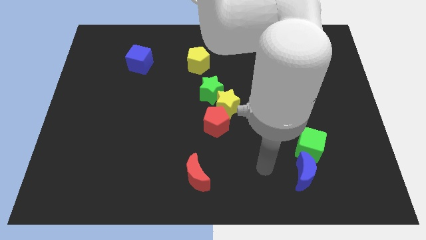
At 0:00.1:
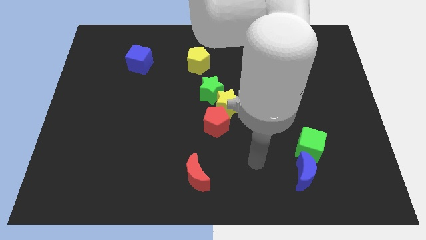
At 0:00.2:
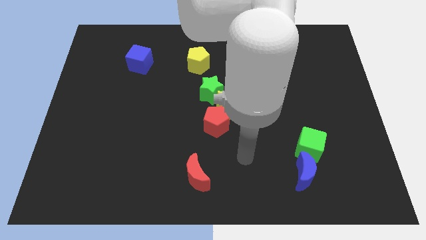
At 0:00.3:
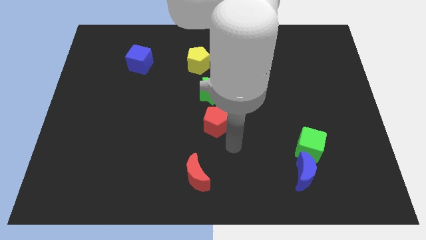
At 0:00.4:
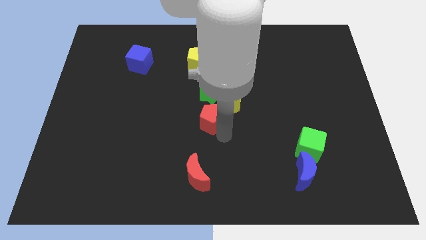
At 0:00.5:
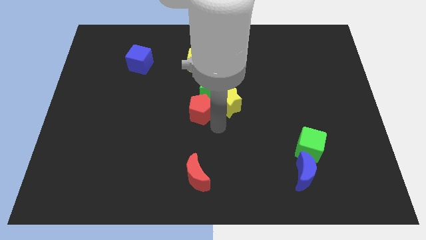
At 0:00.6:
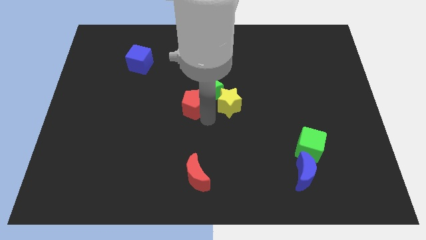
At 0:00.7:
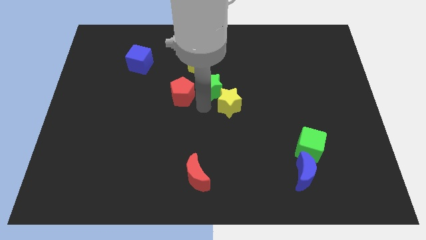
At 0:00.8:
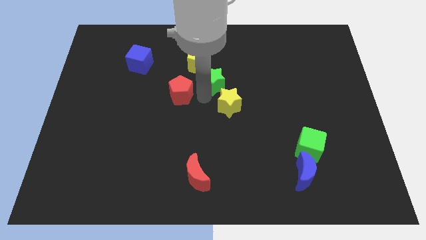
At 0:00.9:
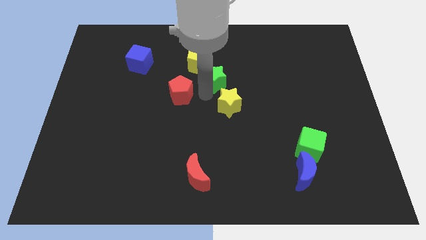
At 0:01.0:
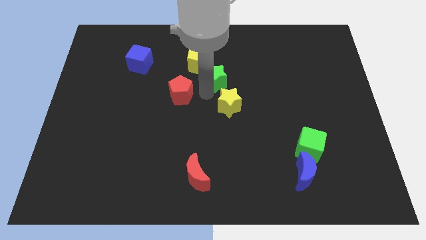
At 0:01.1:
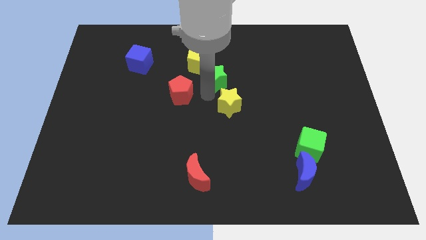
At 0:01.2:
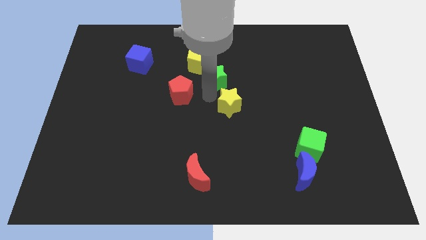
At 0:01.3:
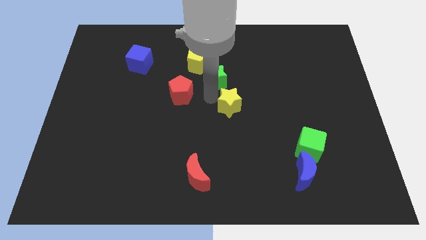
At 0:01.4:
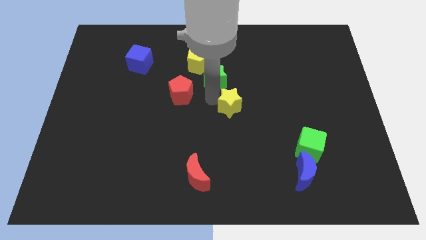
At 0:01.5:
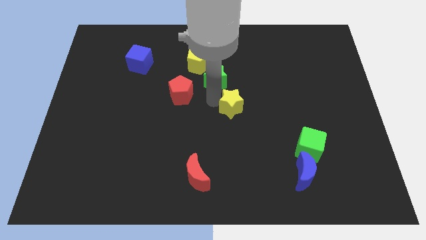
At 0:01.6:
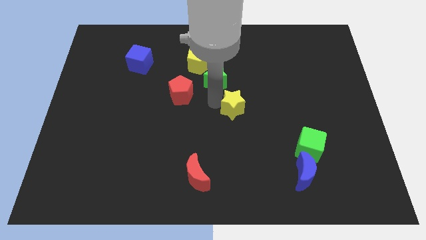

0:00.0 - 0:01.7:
pull the yellow star apart from the red pentagon and green star

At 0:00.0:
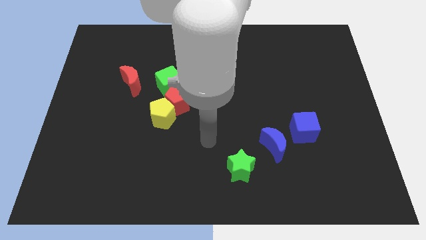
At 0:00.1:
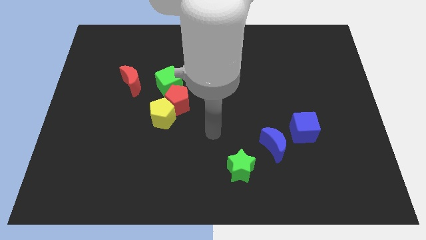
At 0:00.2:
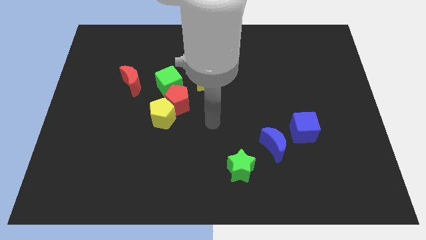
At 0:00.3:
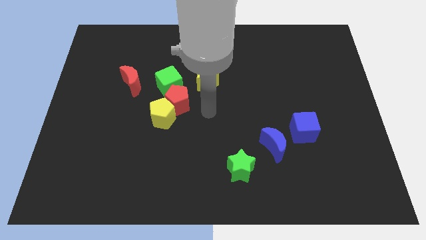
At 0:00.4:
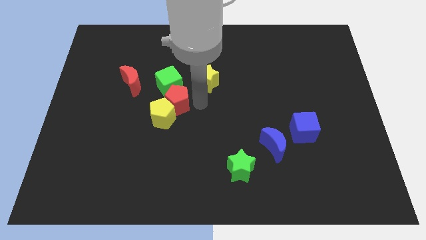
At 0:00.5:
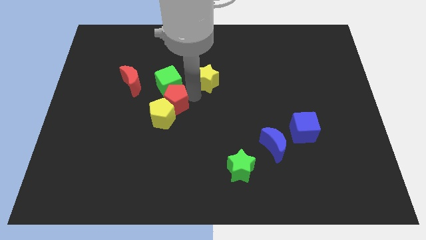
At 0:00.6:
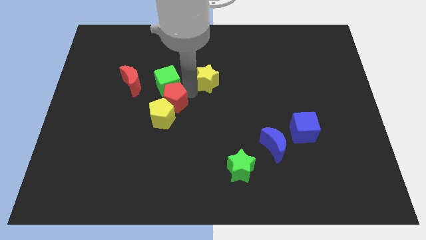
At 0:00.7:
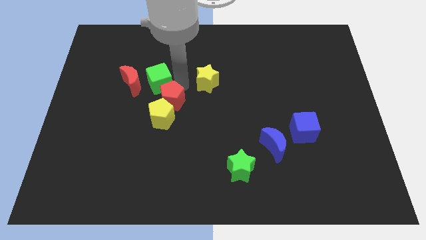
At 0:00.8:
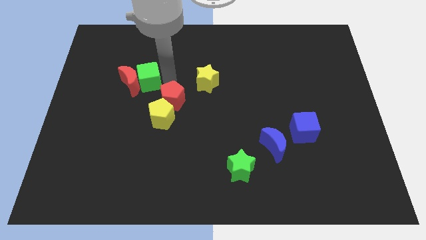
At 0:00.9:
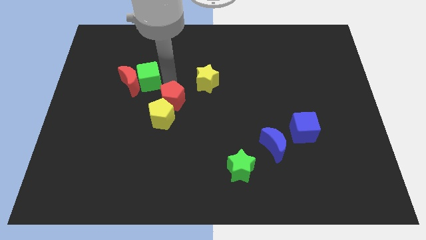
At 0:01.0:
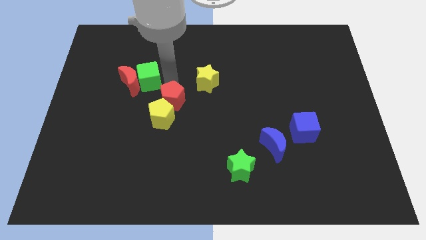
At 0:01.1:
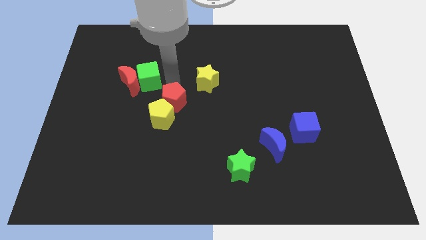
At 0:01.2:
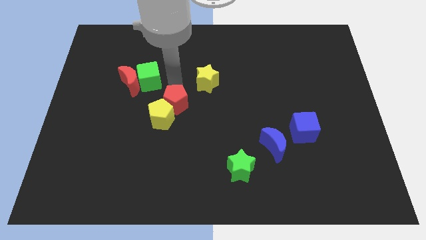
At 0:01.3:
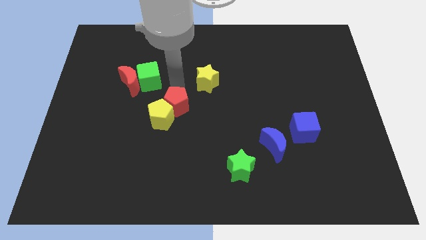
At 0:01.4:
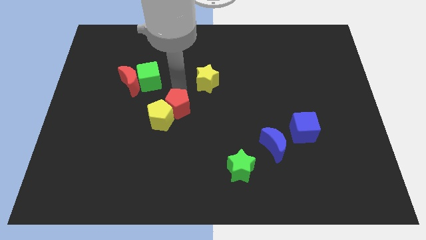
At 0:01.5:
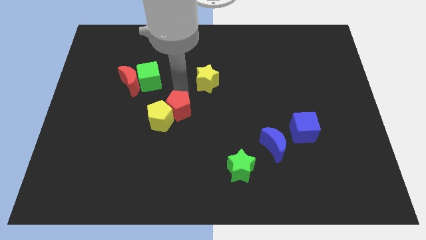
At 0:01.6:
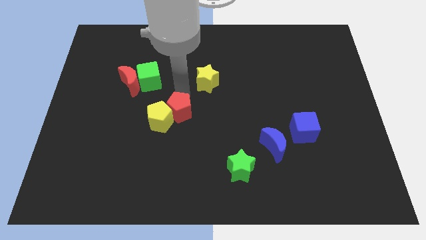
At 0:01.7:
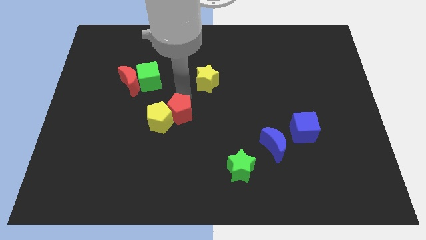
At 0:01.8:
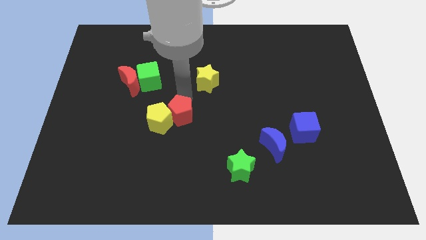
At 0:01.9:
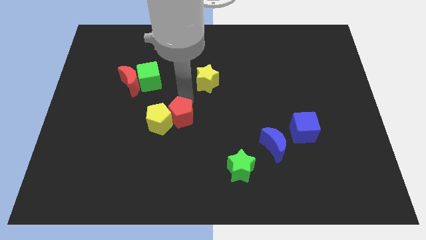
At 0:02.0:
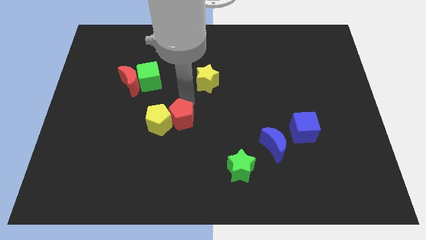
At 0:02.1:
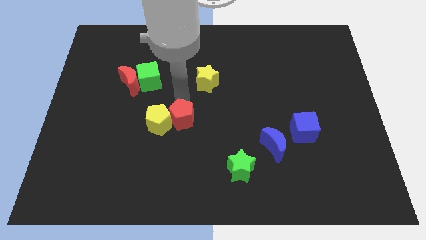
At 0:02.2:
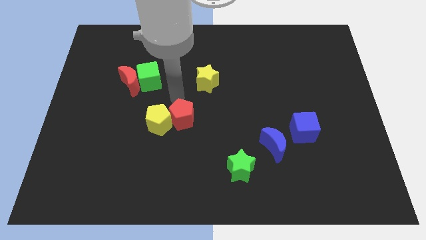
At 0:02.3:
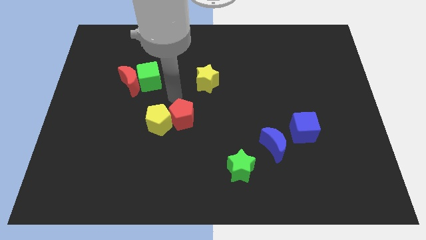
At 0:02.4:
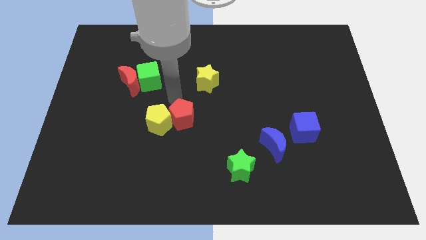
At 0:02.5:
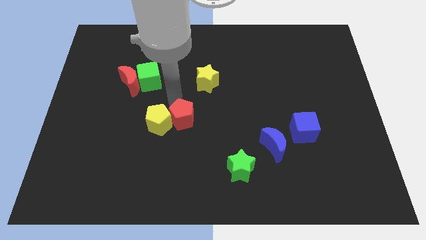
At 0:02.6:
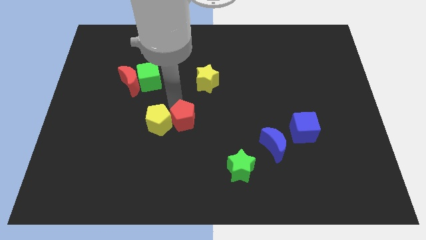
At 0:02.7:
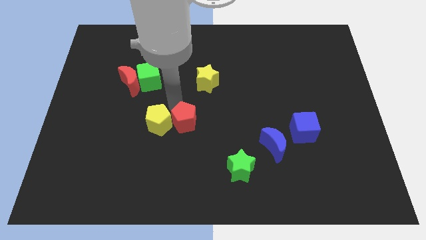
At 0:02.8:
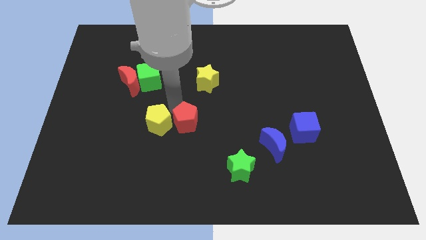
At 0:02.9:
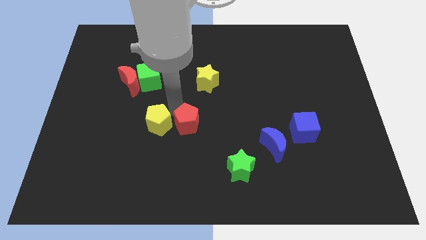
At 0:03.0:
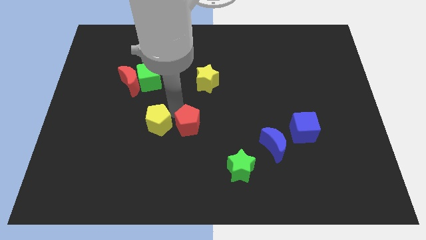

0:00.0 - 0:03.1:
move the red pentagon away from the yellow pentagon, green cube, and yellow star

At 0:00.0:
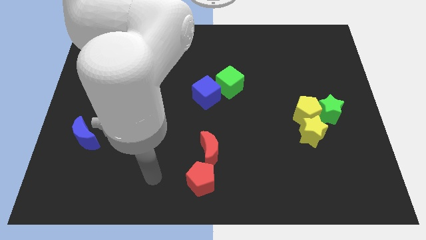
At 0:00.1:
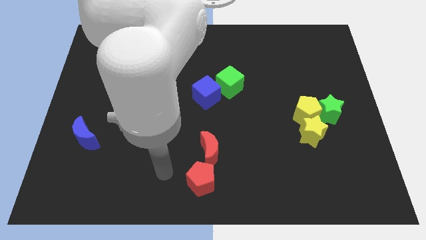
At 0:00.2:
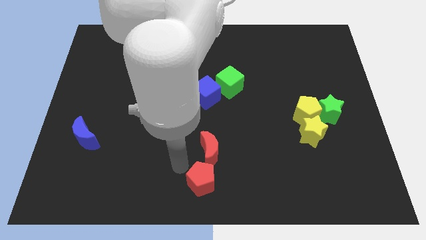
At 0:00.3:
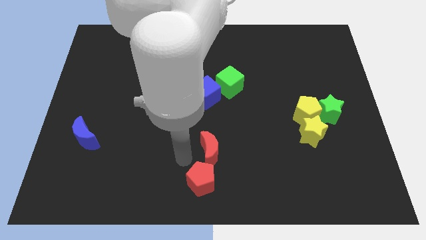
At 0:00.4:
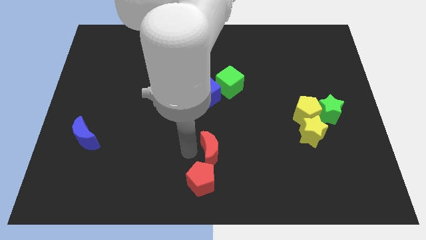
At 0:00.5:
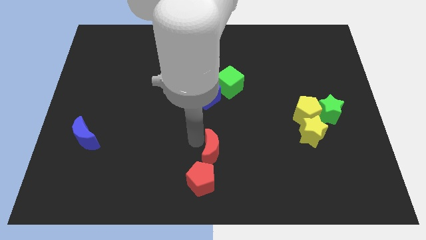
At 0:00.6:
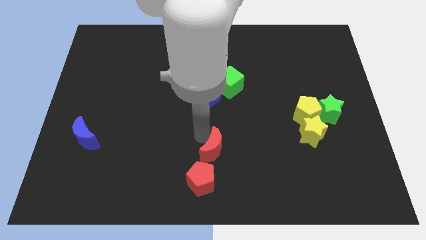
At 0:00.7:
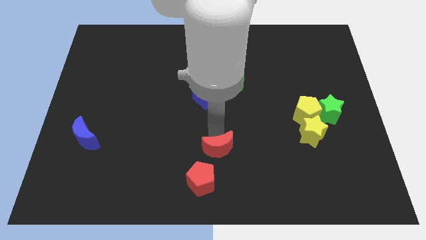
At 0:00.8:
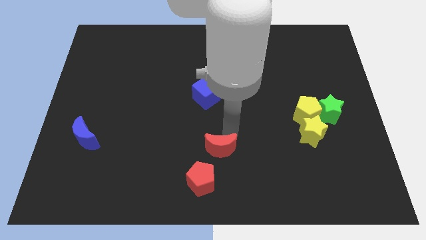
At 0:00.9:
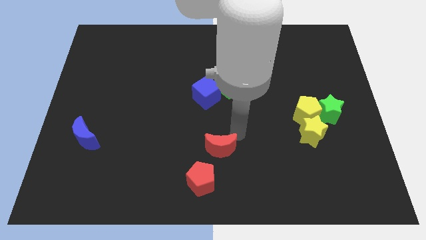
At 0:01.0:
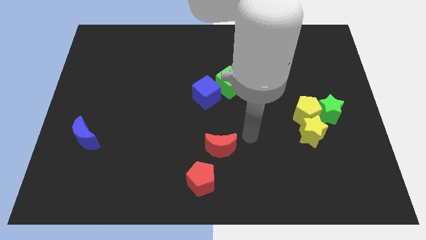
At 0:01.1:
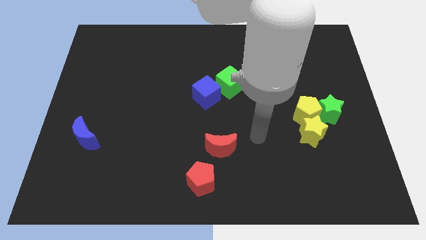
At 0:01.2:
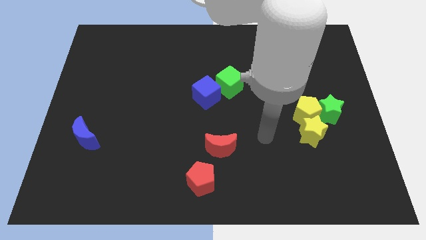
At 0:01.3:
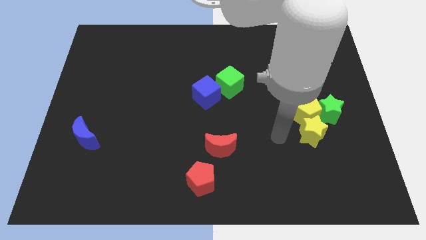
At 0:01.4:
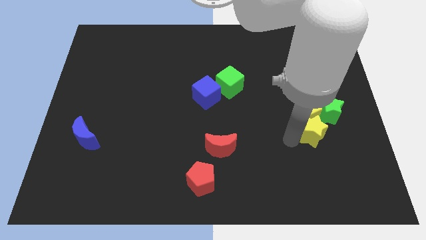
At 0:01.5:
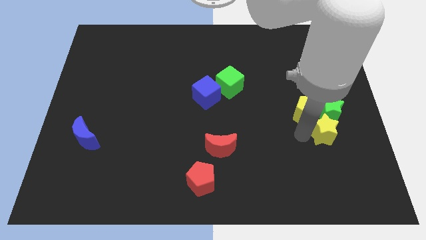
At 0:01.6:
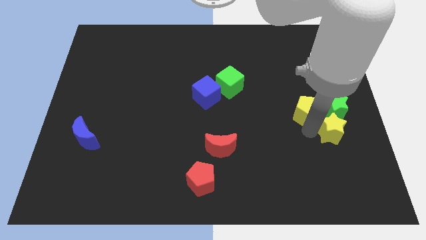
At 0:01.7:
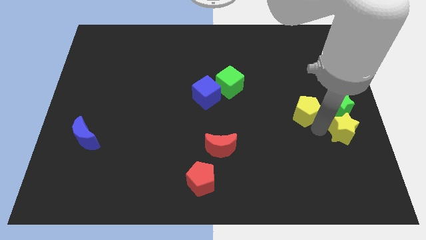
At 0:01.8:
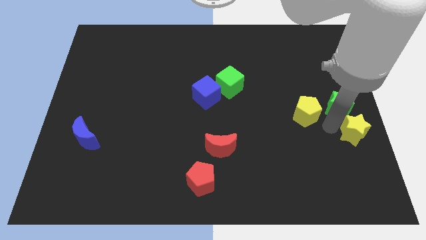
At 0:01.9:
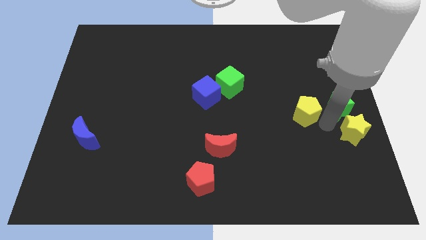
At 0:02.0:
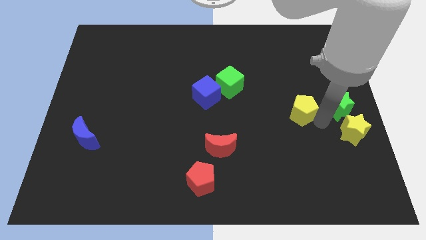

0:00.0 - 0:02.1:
separate the yellow pentagon from the yellow star and green star

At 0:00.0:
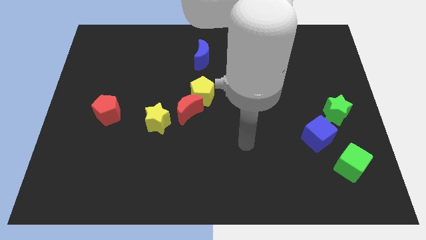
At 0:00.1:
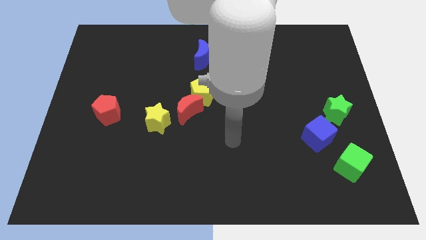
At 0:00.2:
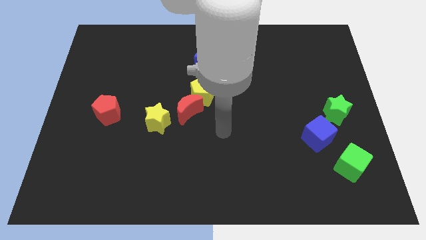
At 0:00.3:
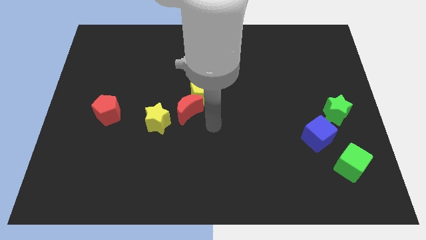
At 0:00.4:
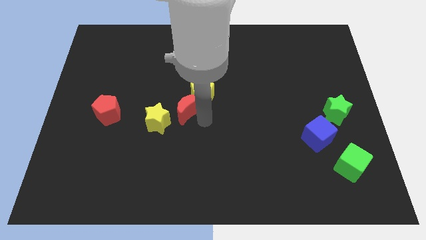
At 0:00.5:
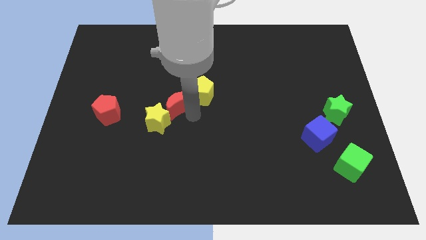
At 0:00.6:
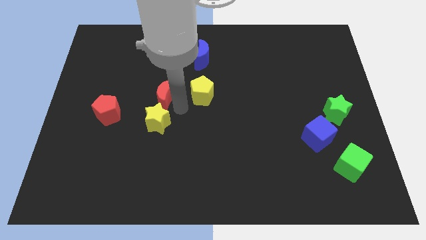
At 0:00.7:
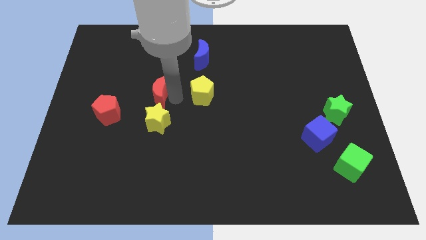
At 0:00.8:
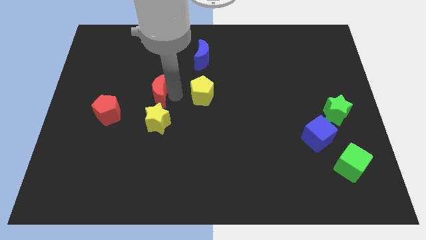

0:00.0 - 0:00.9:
separate the yellow pentagon from the red moon

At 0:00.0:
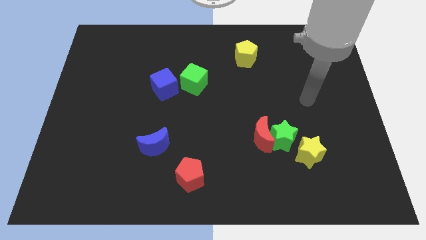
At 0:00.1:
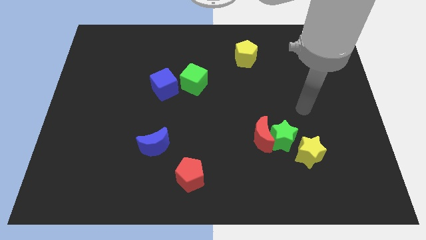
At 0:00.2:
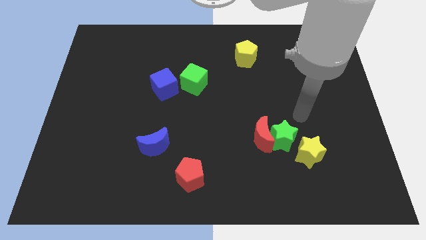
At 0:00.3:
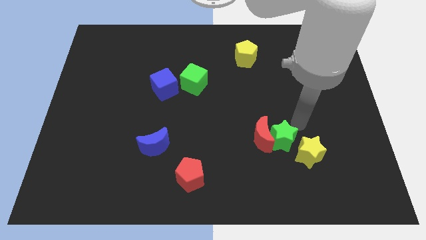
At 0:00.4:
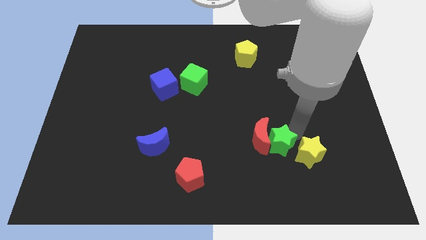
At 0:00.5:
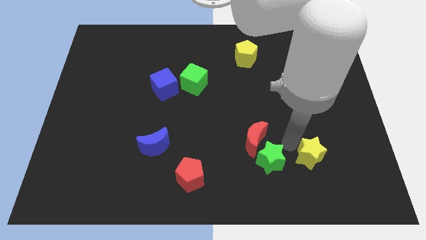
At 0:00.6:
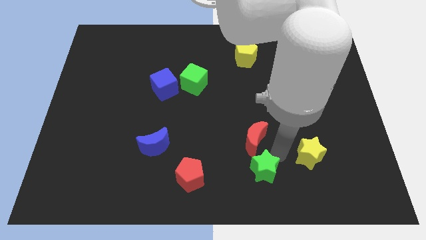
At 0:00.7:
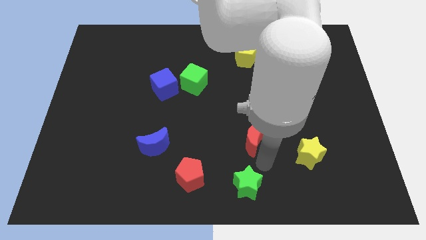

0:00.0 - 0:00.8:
move the red moon away from the green star

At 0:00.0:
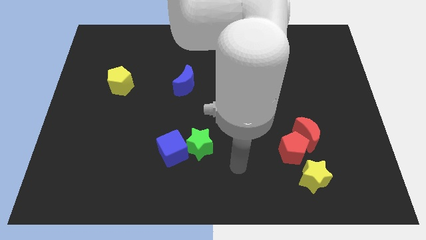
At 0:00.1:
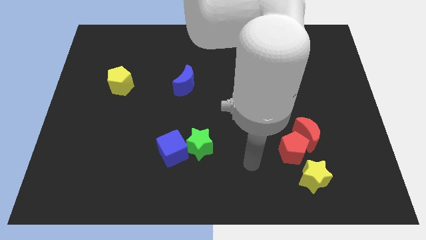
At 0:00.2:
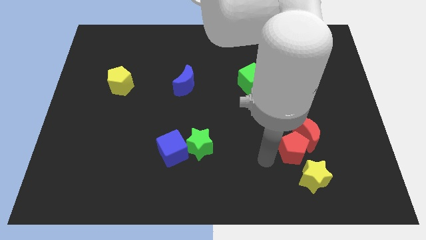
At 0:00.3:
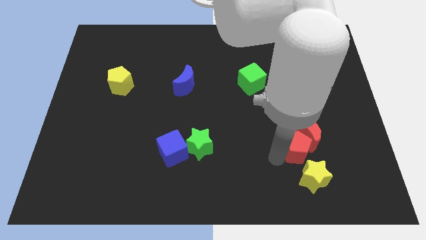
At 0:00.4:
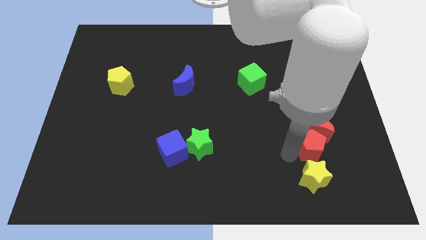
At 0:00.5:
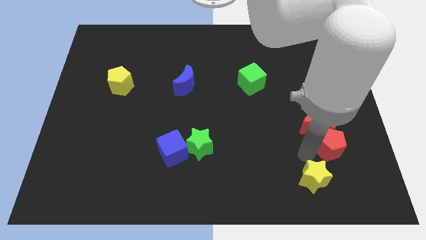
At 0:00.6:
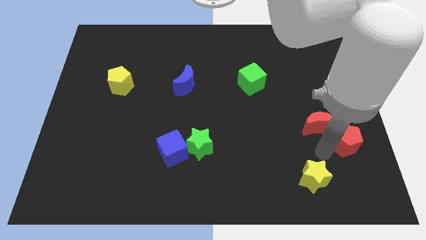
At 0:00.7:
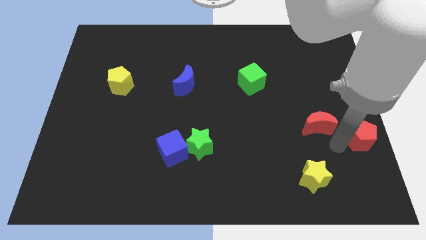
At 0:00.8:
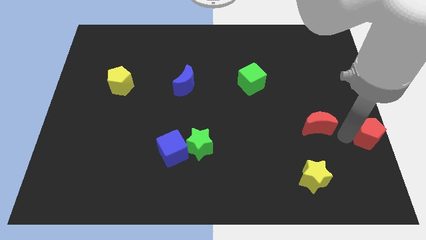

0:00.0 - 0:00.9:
pull the red moon apart from the red pentagon
